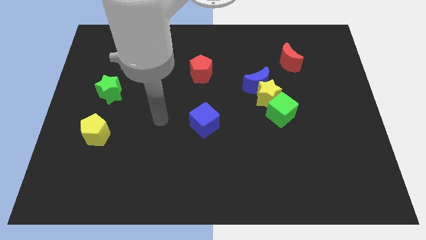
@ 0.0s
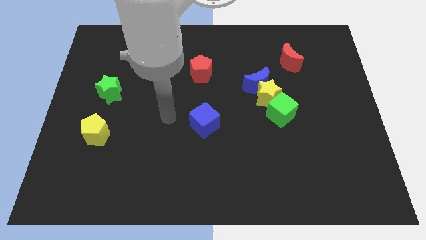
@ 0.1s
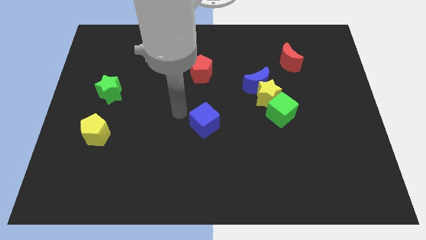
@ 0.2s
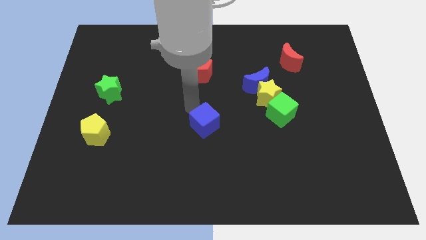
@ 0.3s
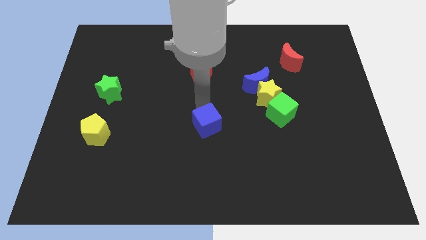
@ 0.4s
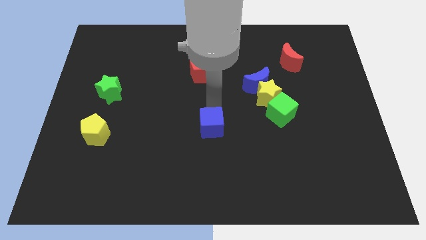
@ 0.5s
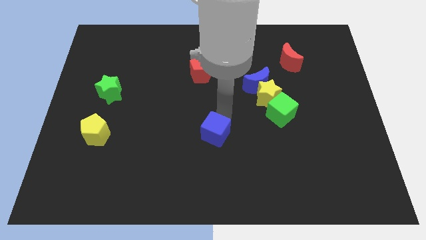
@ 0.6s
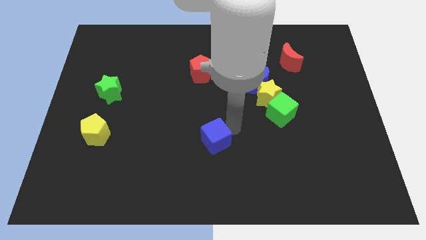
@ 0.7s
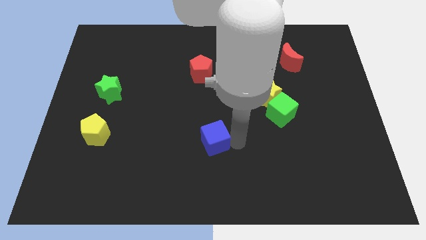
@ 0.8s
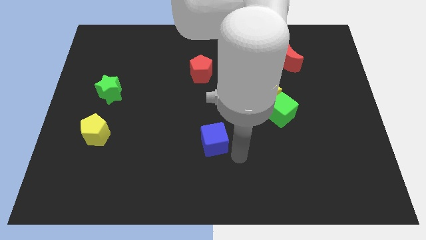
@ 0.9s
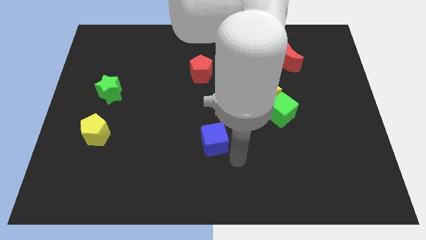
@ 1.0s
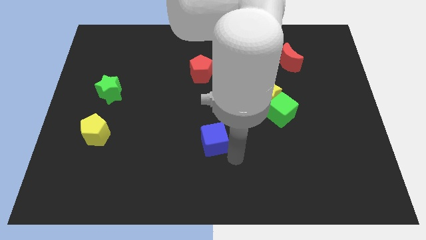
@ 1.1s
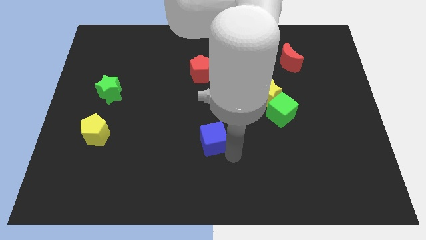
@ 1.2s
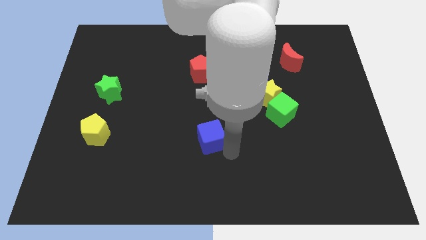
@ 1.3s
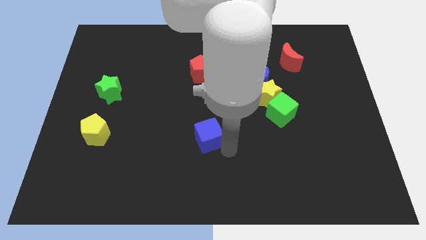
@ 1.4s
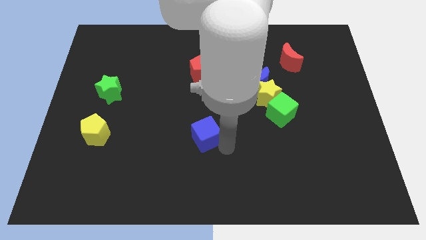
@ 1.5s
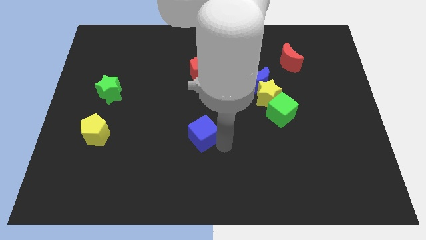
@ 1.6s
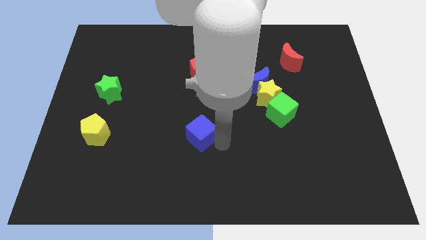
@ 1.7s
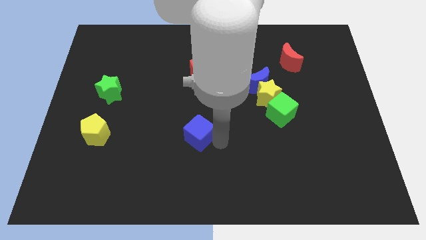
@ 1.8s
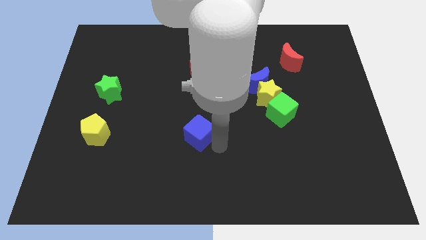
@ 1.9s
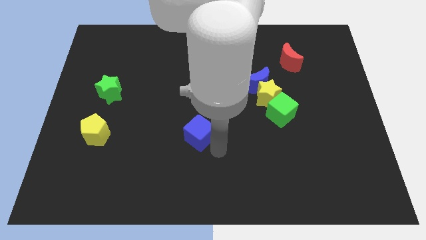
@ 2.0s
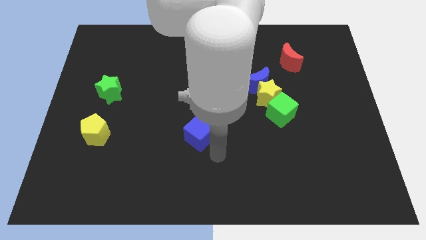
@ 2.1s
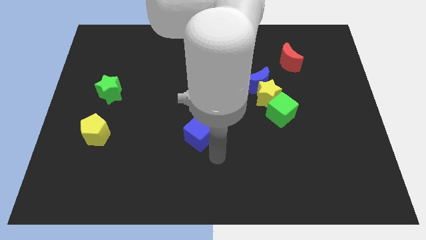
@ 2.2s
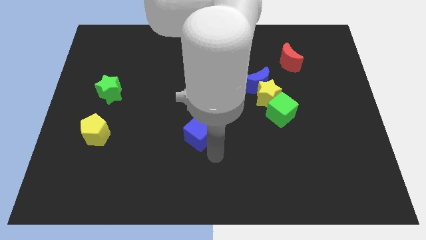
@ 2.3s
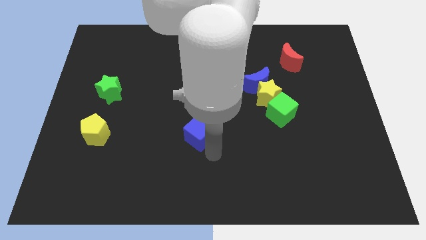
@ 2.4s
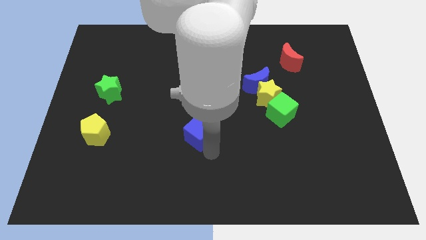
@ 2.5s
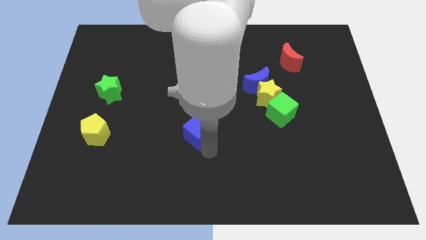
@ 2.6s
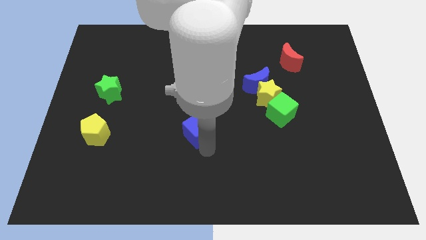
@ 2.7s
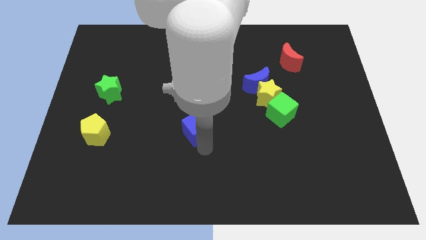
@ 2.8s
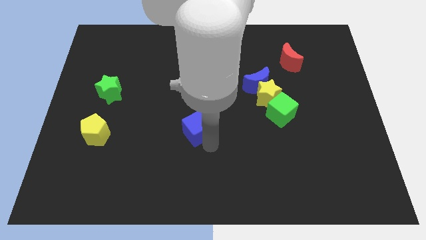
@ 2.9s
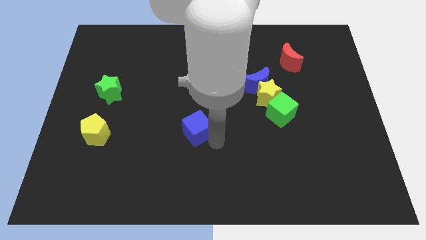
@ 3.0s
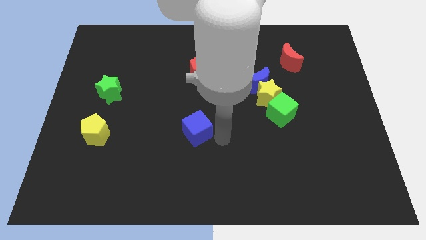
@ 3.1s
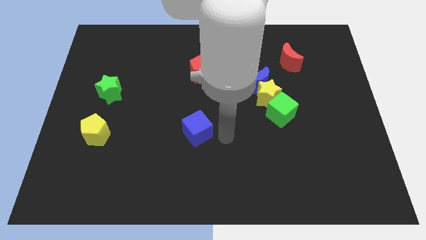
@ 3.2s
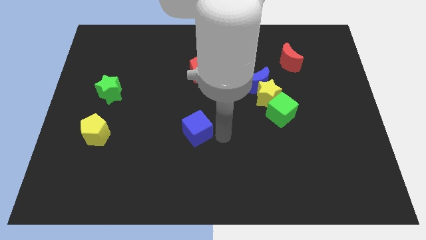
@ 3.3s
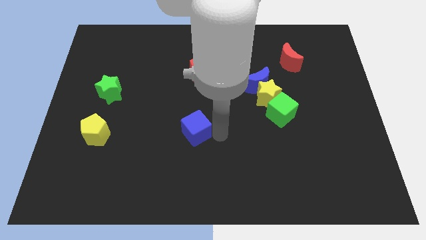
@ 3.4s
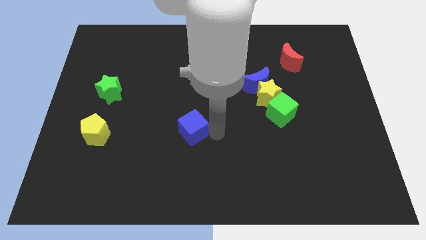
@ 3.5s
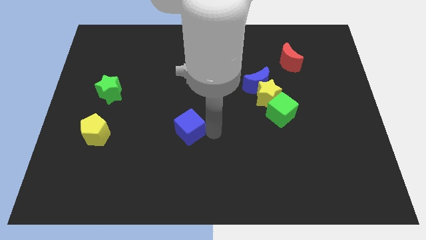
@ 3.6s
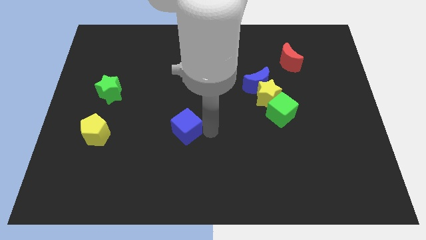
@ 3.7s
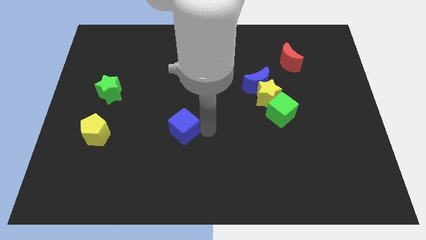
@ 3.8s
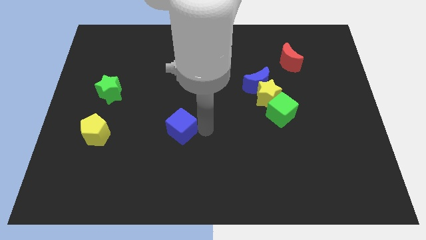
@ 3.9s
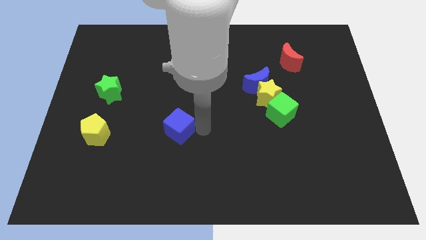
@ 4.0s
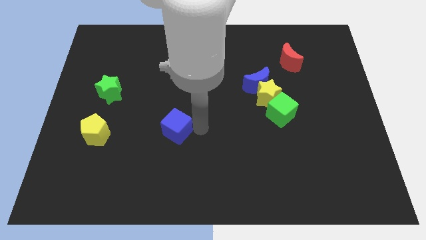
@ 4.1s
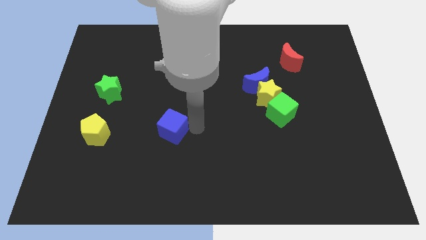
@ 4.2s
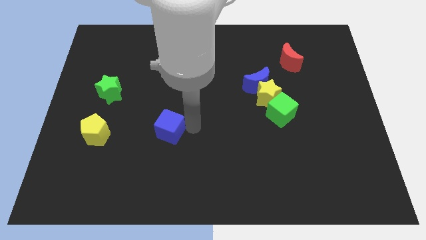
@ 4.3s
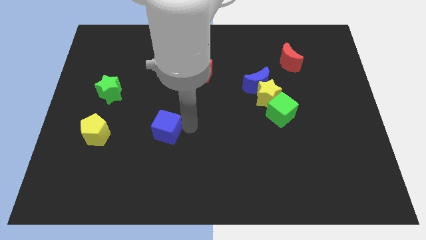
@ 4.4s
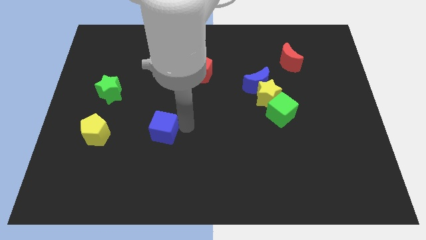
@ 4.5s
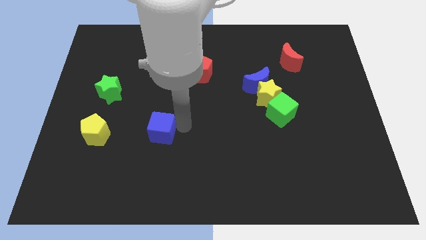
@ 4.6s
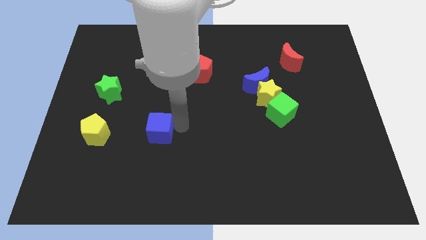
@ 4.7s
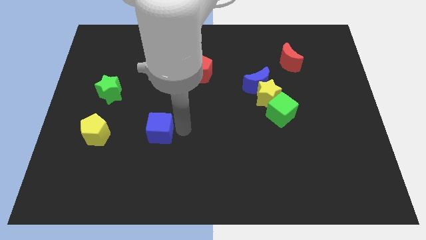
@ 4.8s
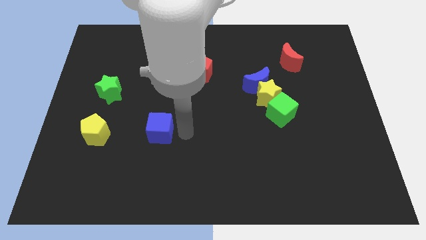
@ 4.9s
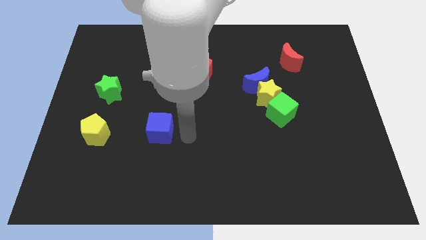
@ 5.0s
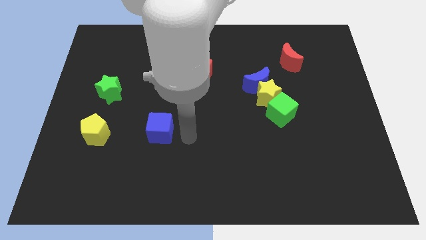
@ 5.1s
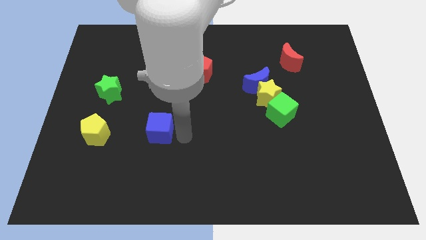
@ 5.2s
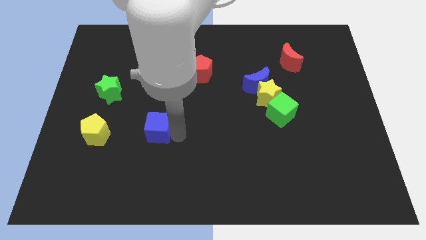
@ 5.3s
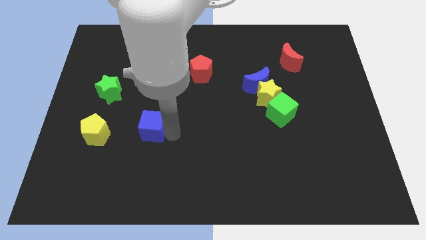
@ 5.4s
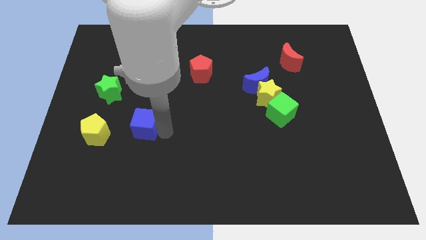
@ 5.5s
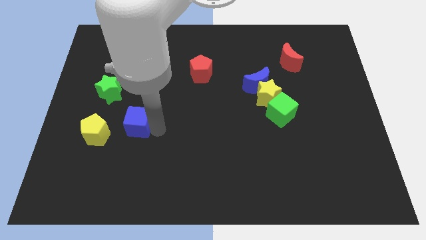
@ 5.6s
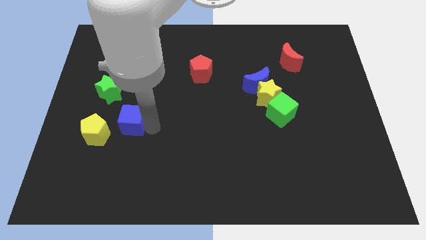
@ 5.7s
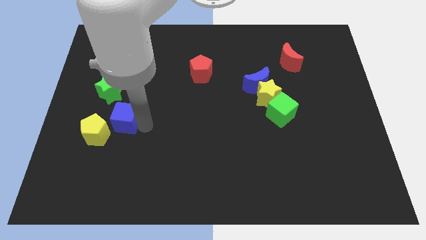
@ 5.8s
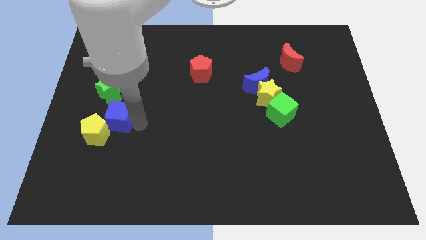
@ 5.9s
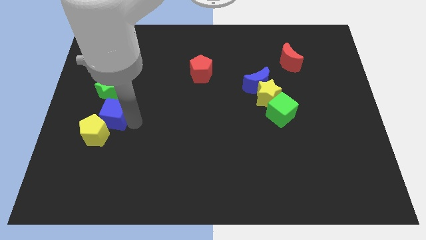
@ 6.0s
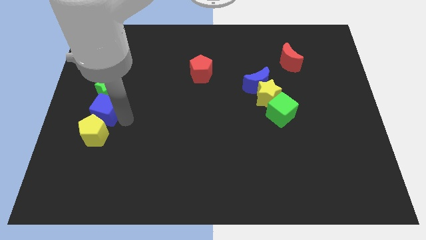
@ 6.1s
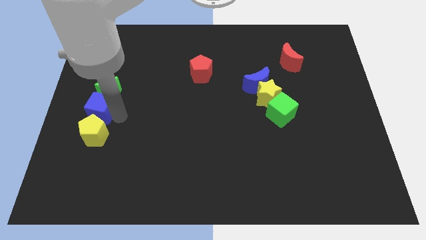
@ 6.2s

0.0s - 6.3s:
push the blue cube to the left side of the board
